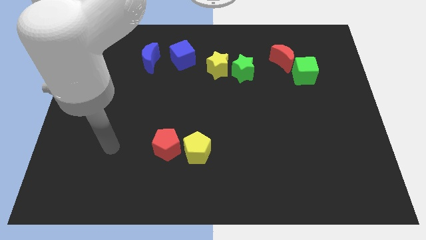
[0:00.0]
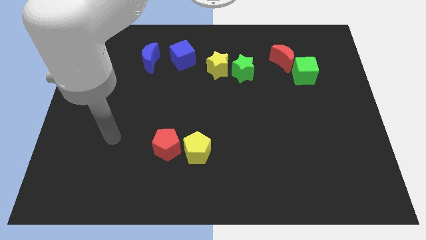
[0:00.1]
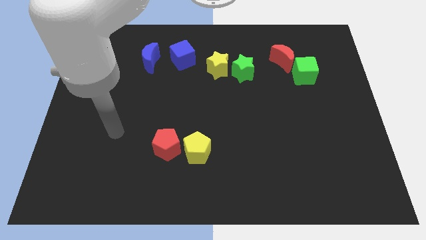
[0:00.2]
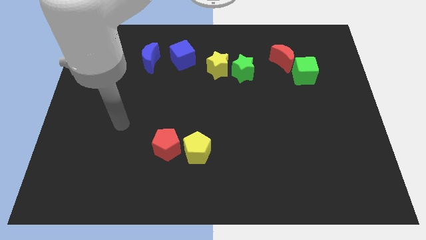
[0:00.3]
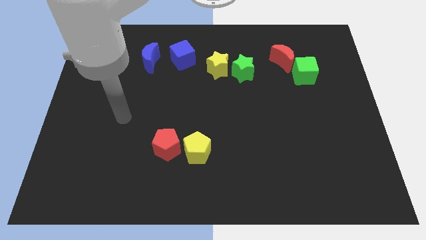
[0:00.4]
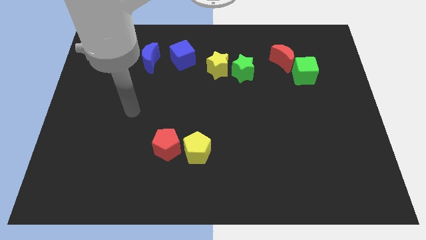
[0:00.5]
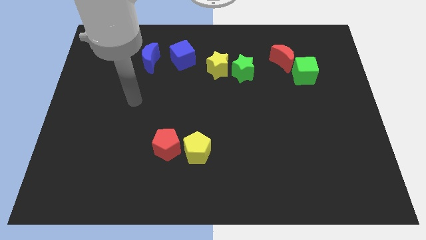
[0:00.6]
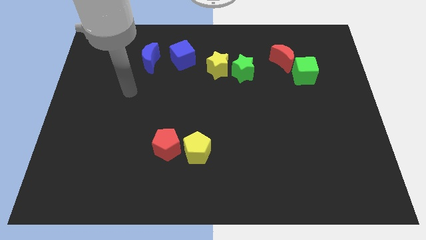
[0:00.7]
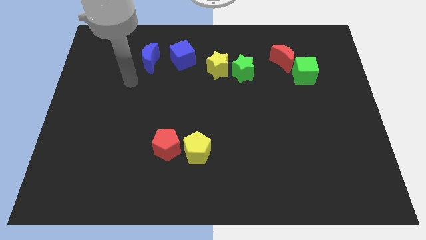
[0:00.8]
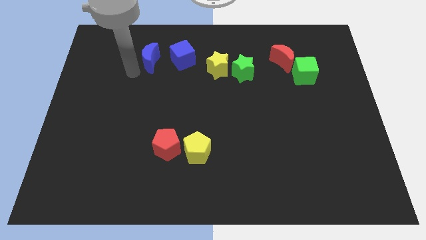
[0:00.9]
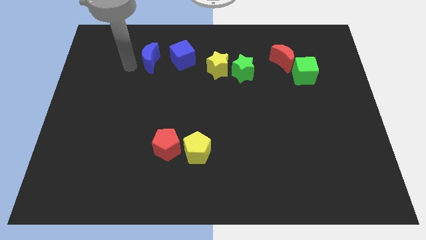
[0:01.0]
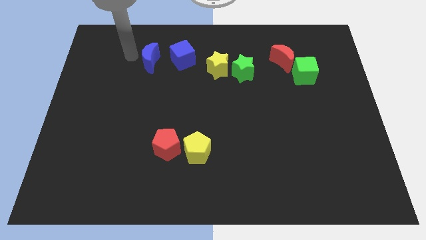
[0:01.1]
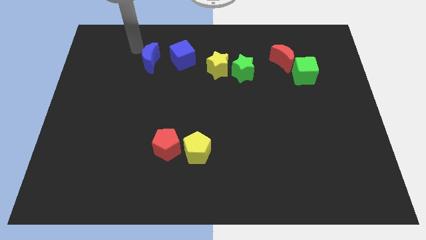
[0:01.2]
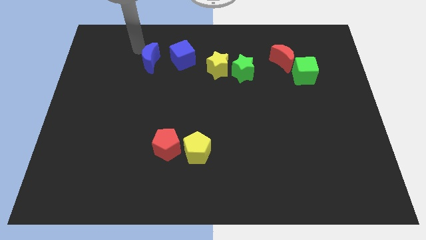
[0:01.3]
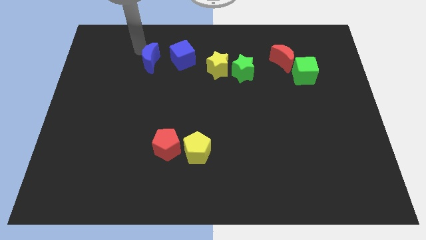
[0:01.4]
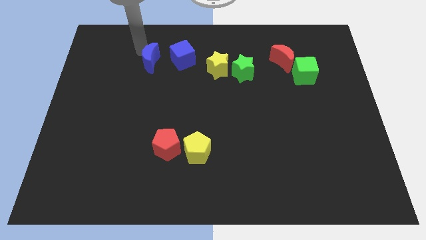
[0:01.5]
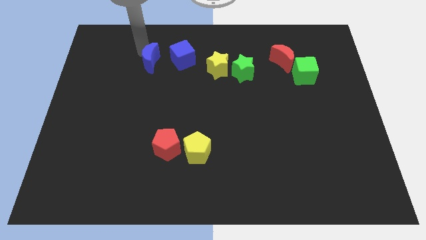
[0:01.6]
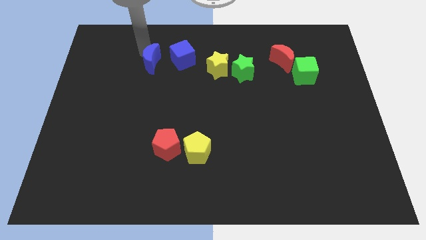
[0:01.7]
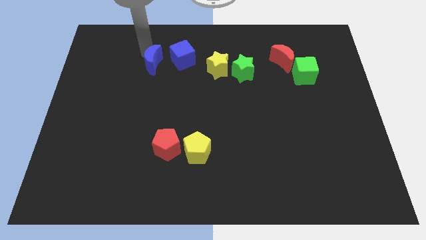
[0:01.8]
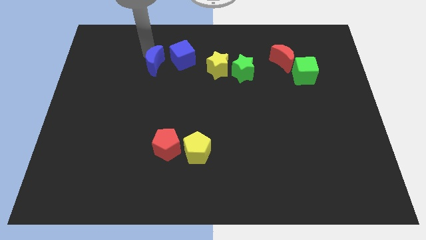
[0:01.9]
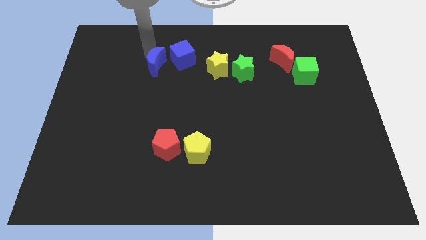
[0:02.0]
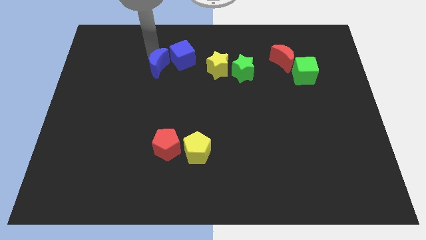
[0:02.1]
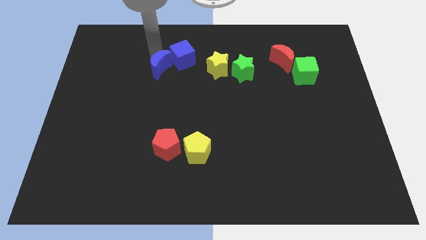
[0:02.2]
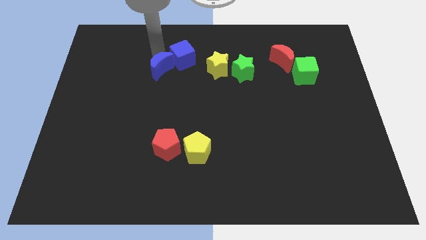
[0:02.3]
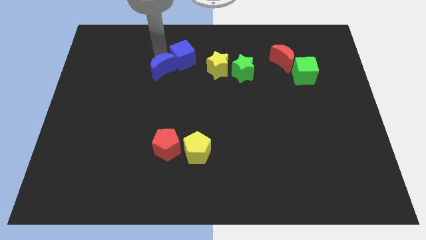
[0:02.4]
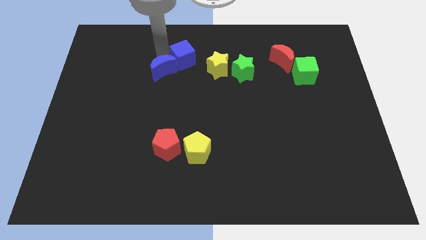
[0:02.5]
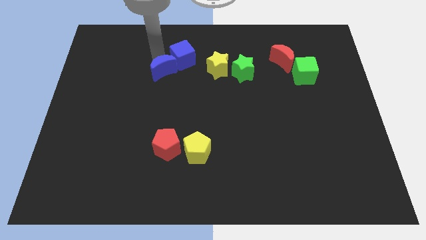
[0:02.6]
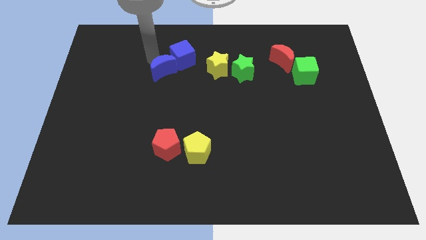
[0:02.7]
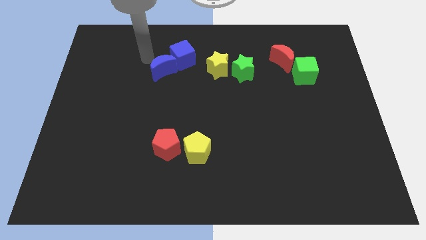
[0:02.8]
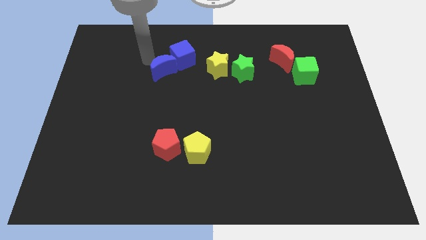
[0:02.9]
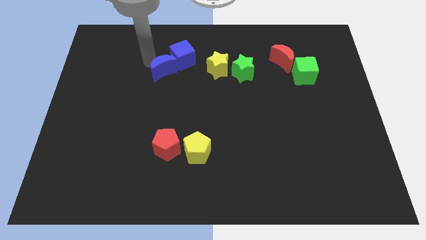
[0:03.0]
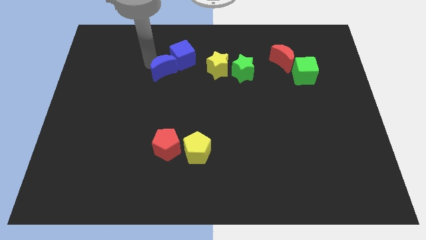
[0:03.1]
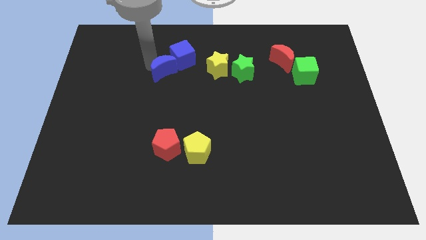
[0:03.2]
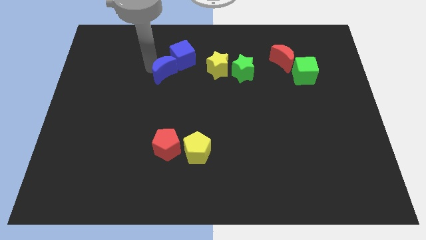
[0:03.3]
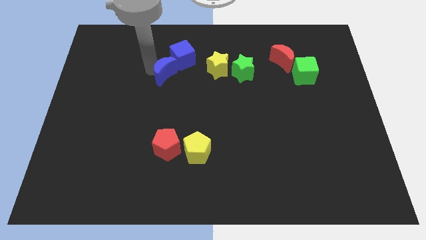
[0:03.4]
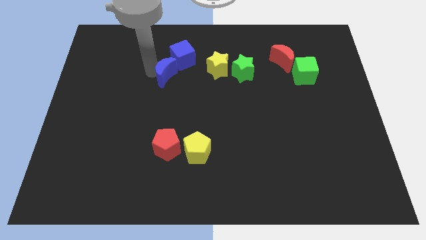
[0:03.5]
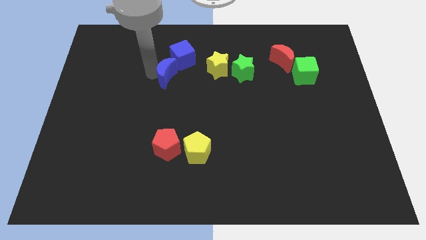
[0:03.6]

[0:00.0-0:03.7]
move the blue moon a little downwards and then to the right

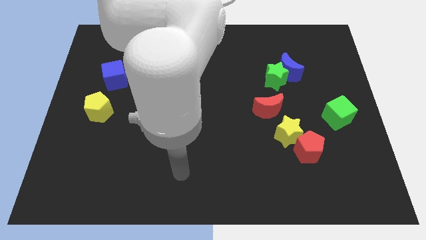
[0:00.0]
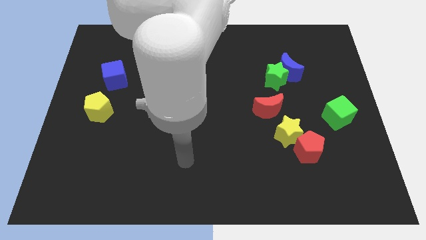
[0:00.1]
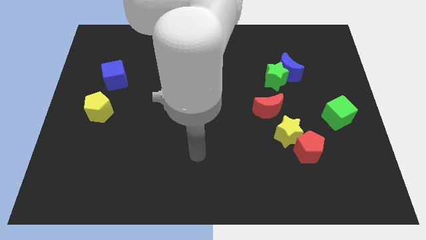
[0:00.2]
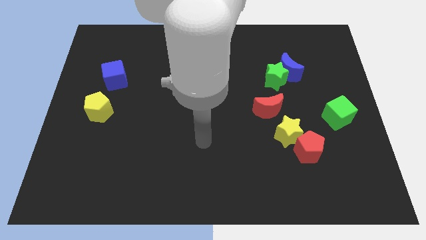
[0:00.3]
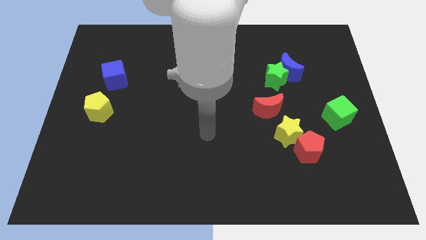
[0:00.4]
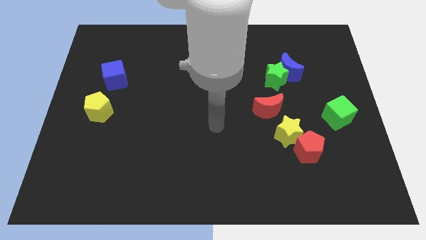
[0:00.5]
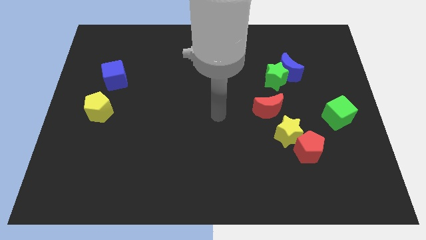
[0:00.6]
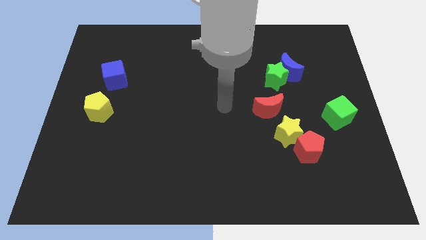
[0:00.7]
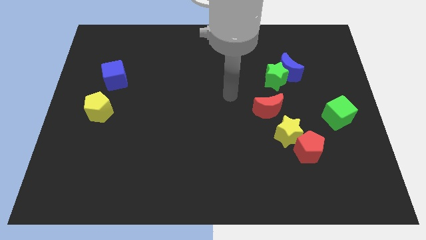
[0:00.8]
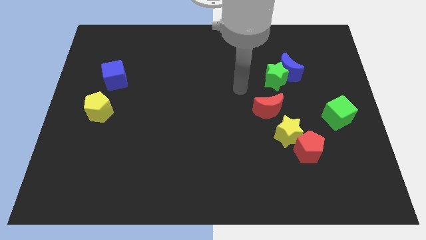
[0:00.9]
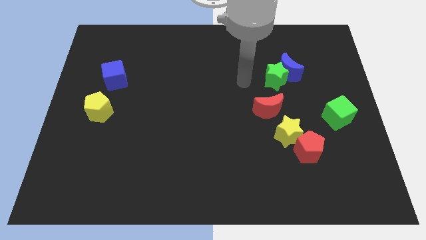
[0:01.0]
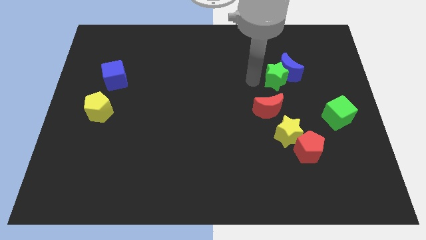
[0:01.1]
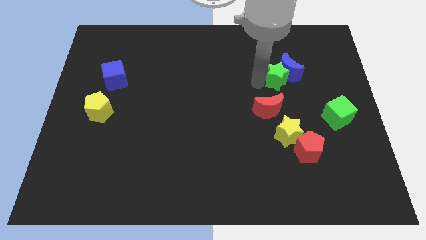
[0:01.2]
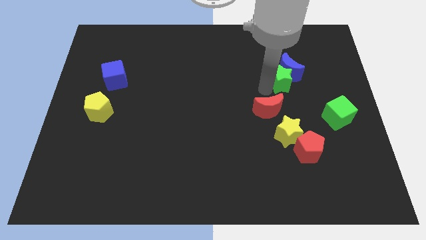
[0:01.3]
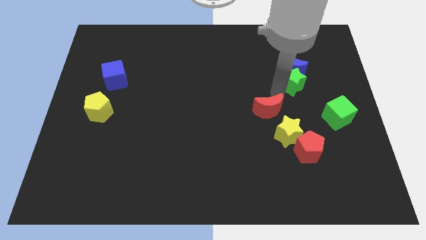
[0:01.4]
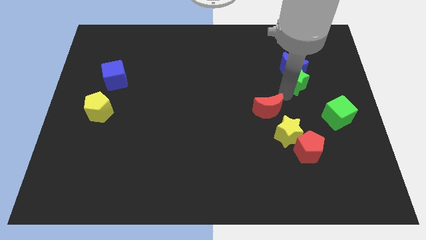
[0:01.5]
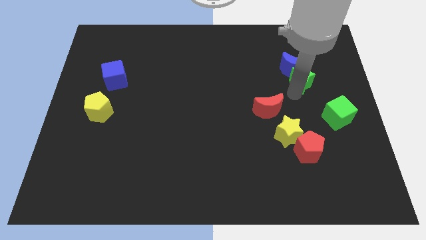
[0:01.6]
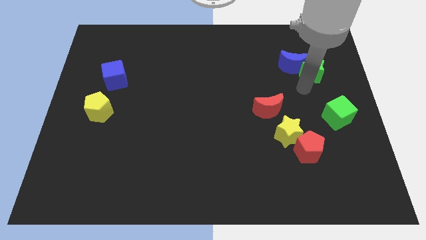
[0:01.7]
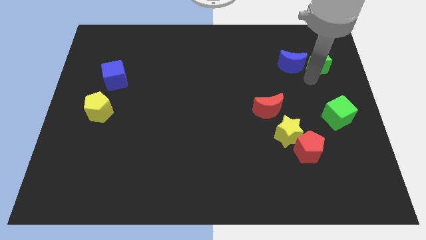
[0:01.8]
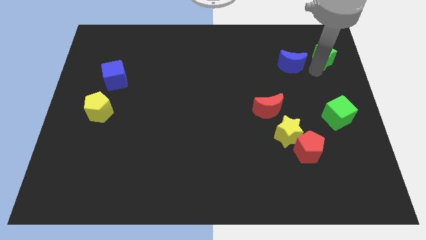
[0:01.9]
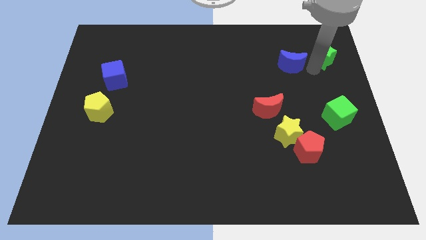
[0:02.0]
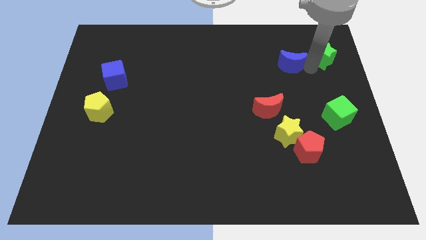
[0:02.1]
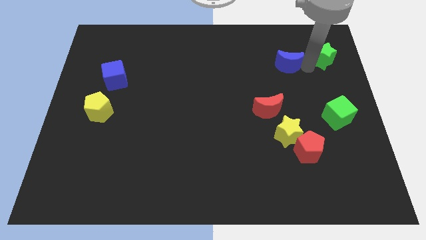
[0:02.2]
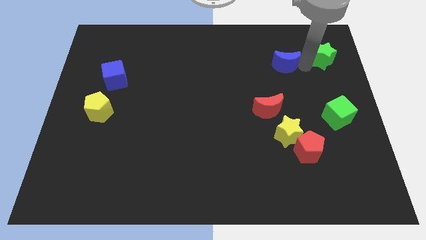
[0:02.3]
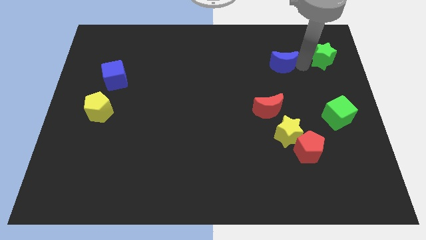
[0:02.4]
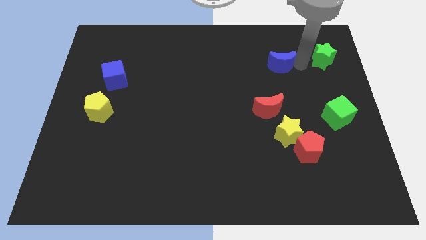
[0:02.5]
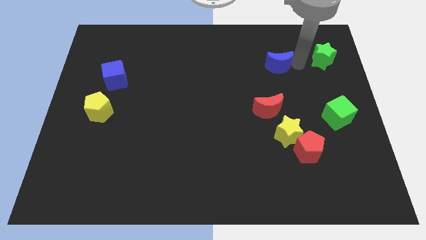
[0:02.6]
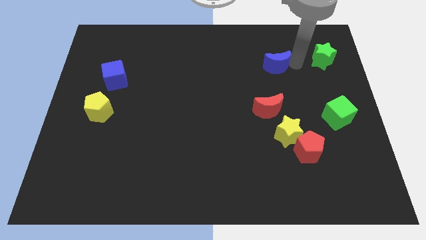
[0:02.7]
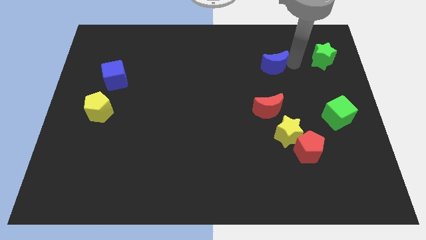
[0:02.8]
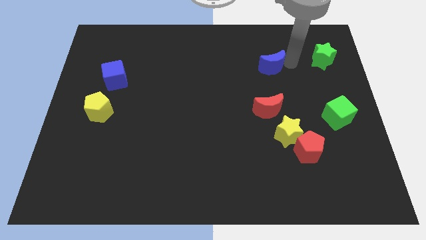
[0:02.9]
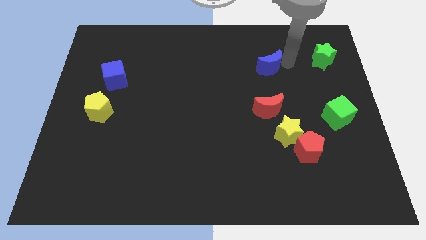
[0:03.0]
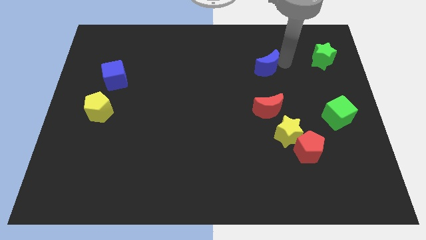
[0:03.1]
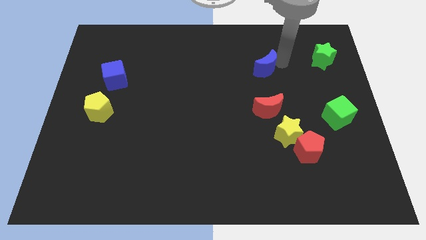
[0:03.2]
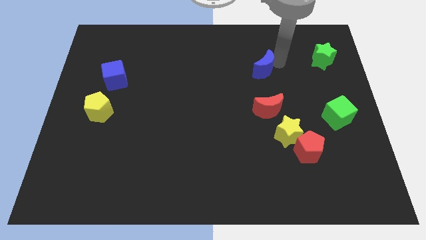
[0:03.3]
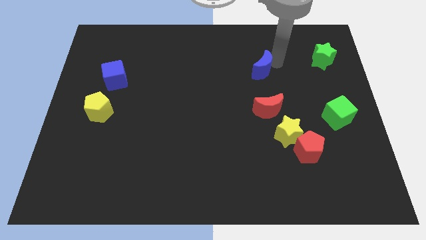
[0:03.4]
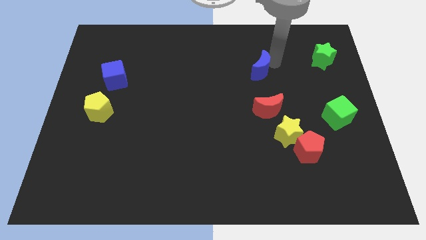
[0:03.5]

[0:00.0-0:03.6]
move the blue moon to the left a little bit
